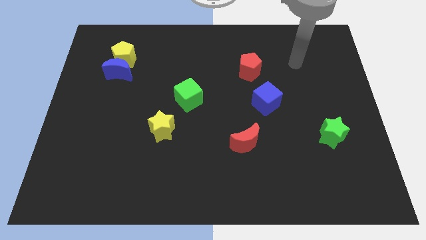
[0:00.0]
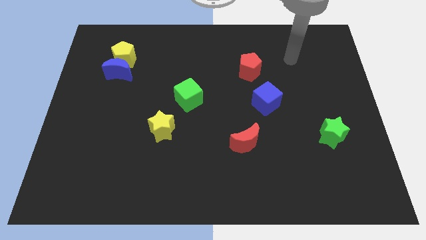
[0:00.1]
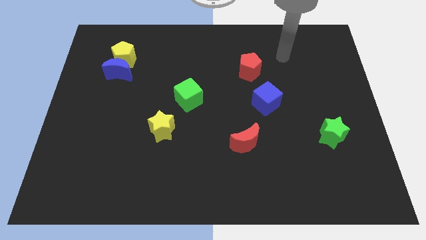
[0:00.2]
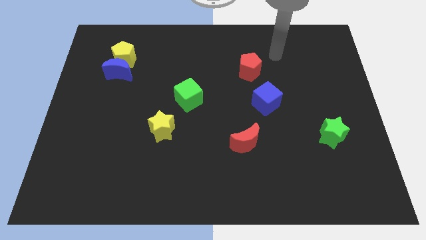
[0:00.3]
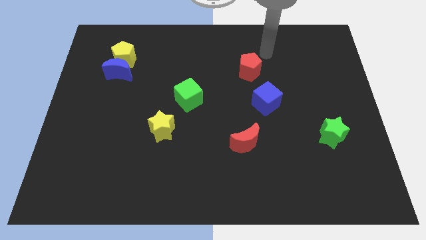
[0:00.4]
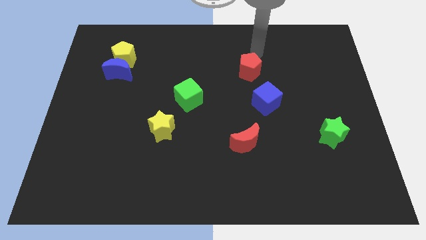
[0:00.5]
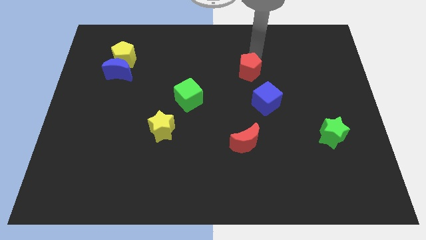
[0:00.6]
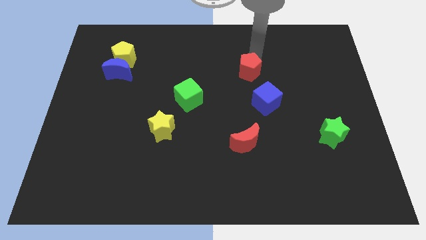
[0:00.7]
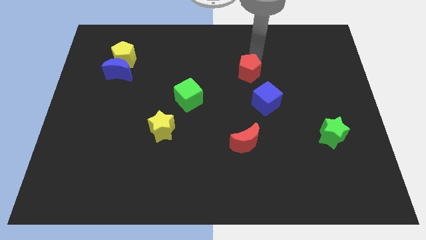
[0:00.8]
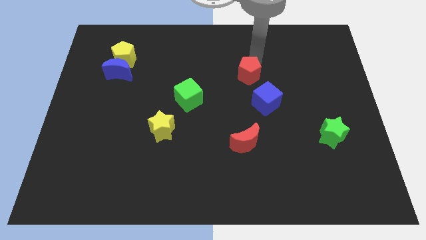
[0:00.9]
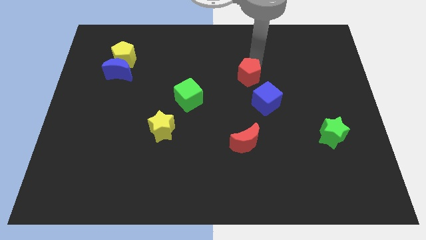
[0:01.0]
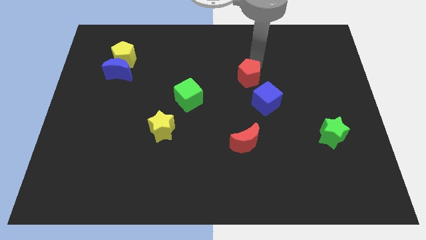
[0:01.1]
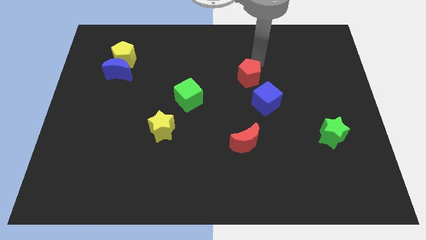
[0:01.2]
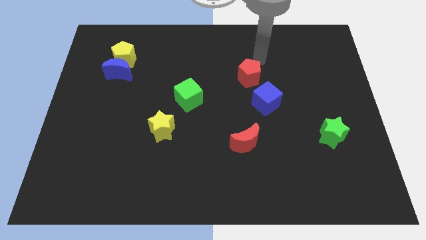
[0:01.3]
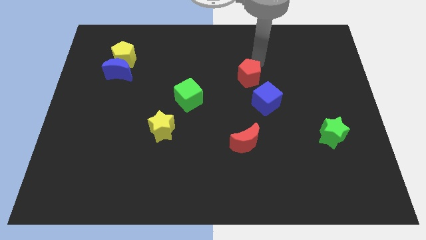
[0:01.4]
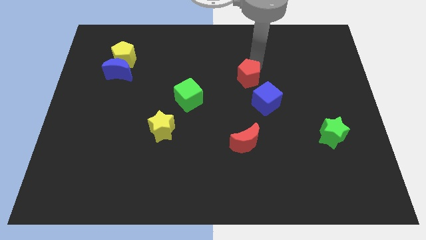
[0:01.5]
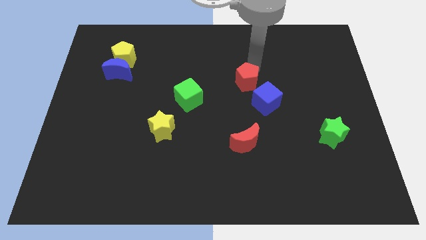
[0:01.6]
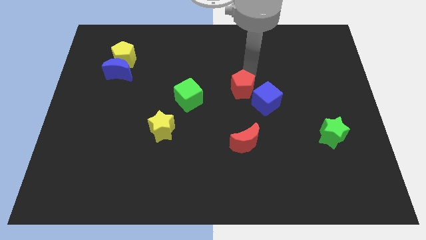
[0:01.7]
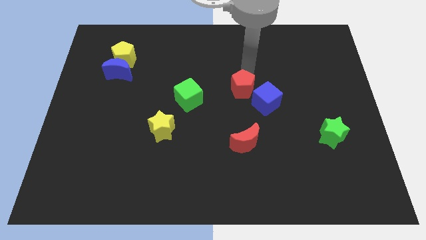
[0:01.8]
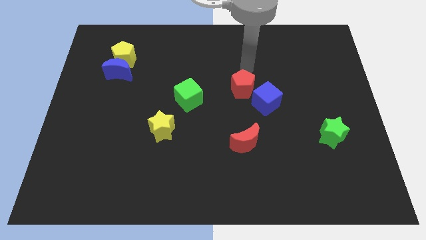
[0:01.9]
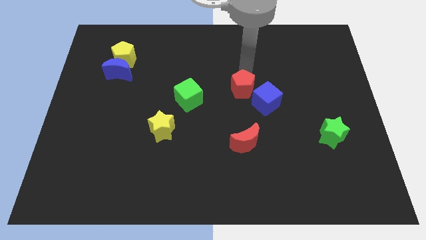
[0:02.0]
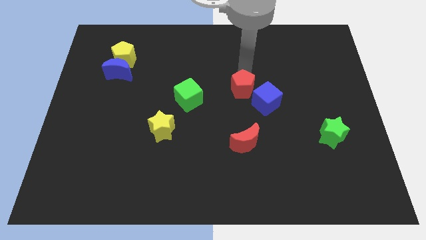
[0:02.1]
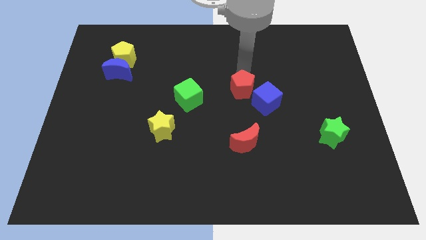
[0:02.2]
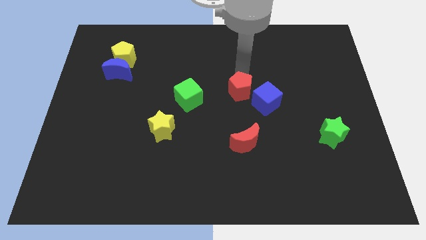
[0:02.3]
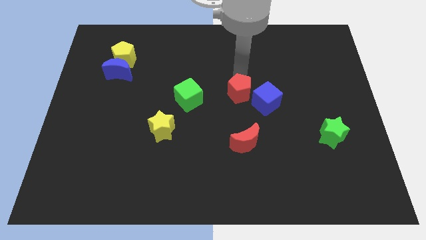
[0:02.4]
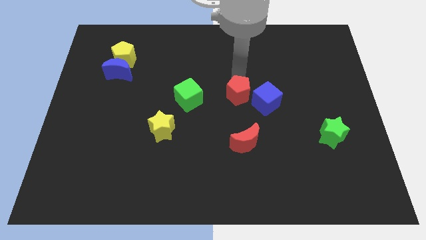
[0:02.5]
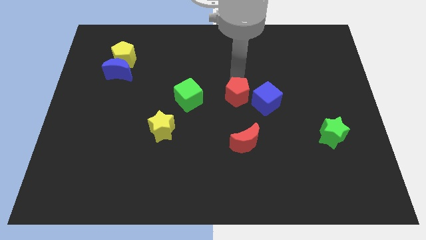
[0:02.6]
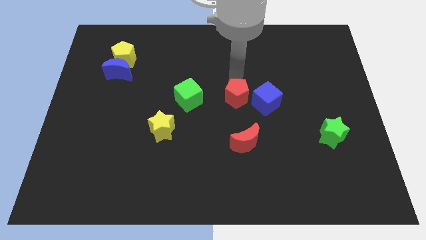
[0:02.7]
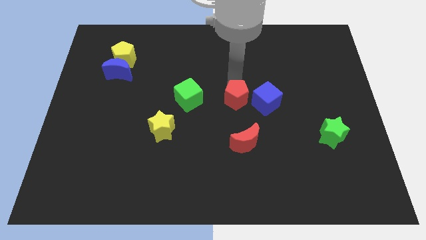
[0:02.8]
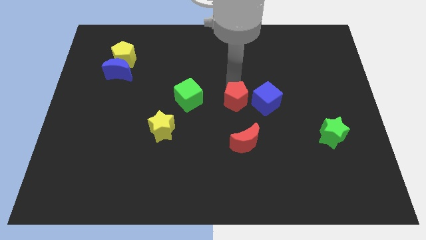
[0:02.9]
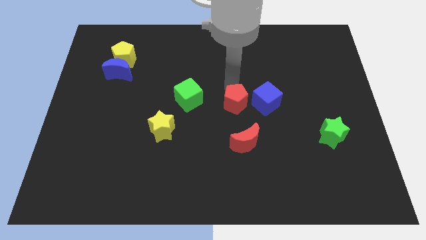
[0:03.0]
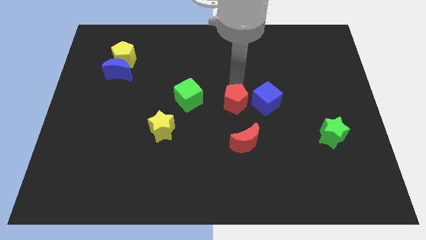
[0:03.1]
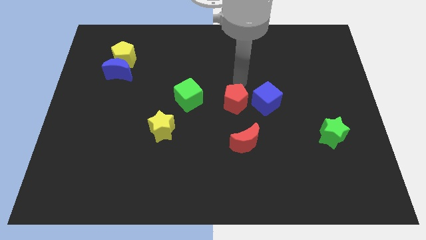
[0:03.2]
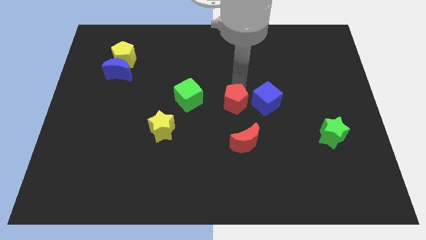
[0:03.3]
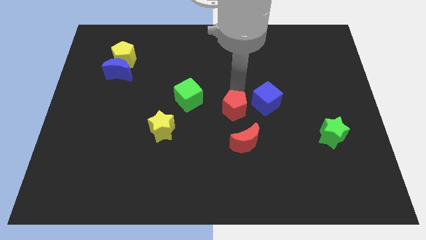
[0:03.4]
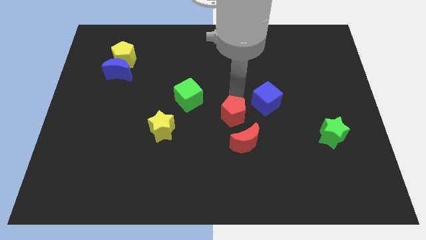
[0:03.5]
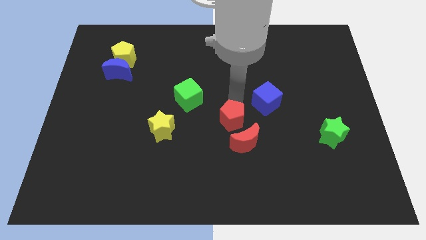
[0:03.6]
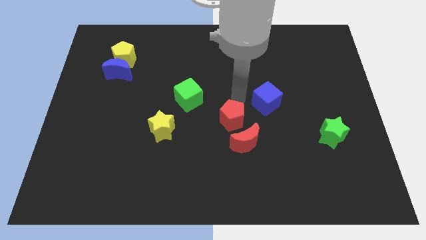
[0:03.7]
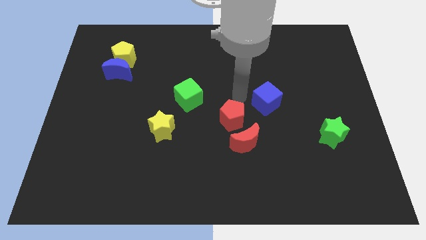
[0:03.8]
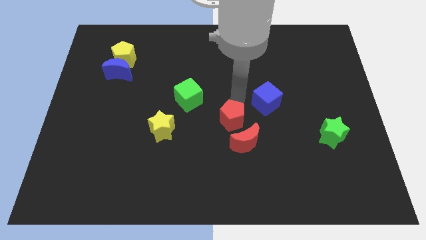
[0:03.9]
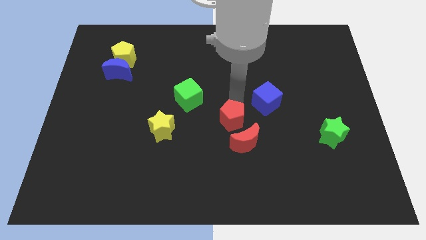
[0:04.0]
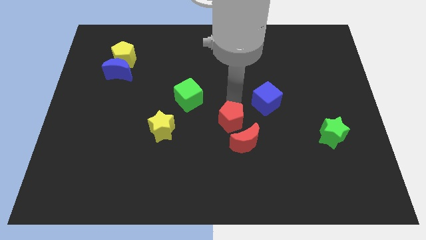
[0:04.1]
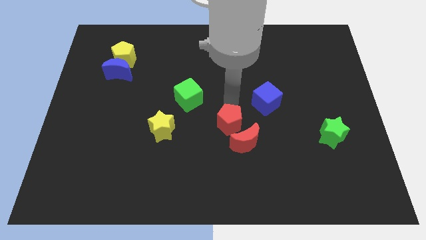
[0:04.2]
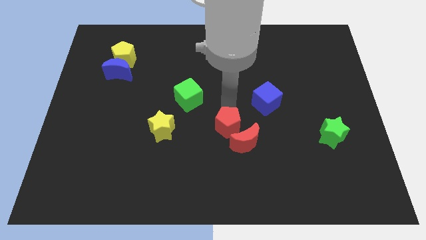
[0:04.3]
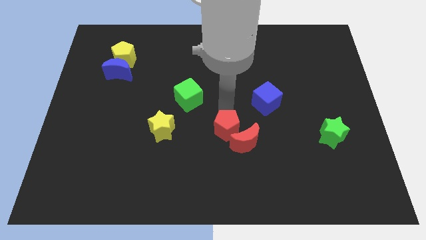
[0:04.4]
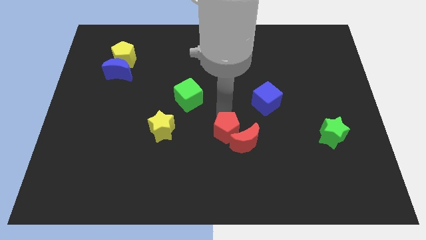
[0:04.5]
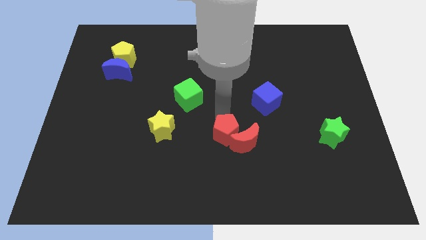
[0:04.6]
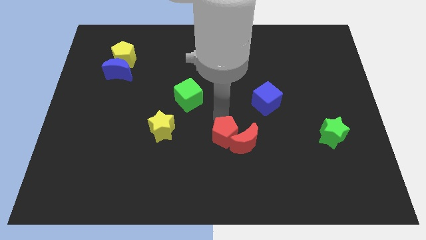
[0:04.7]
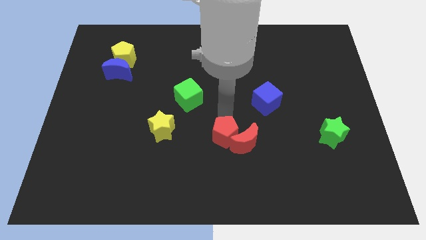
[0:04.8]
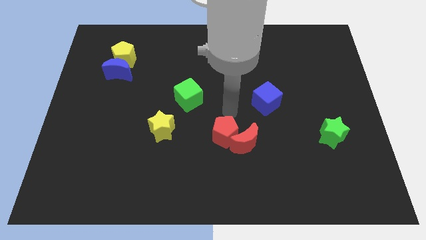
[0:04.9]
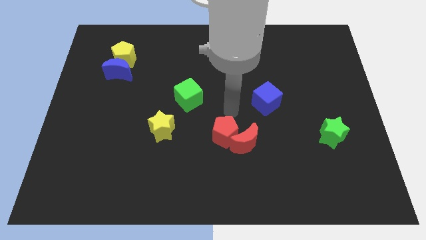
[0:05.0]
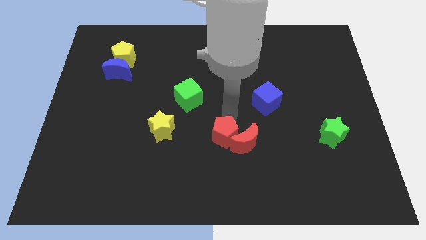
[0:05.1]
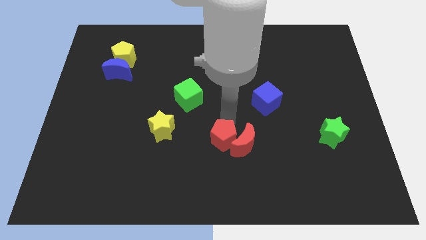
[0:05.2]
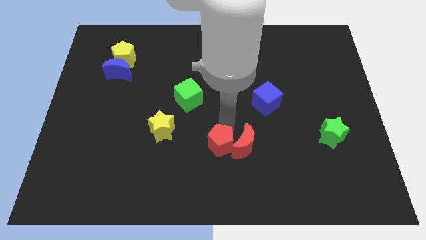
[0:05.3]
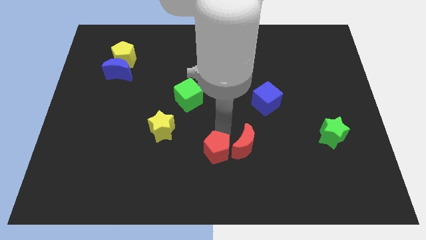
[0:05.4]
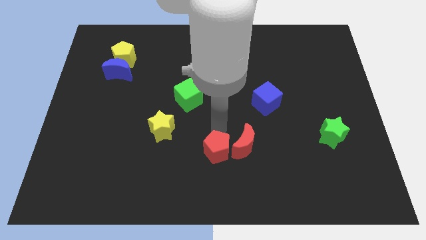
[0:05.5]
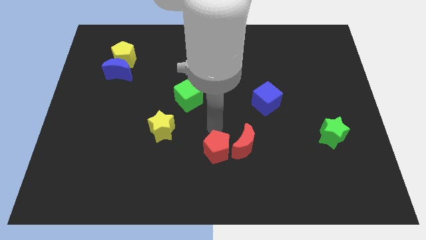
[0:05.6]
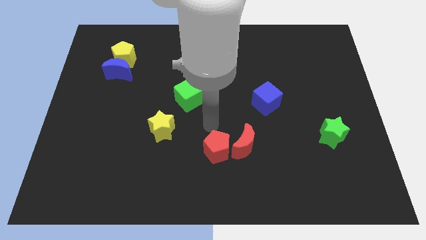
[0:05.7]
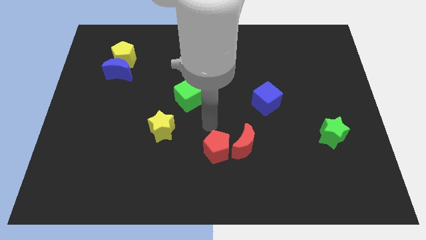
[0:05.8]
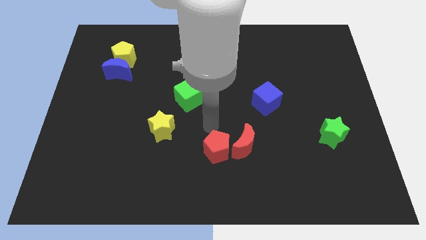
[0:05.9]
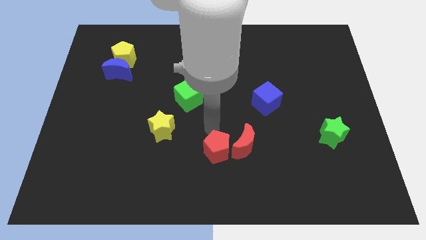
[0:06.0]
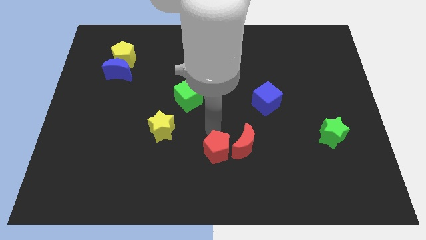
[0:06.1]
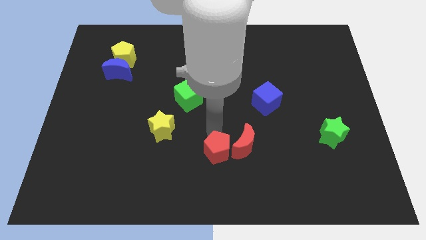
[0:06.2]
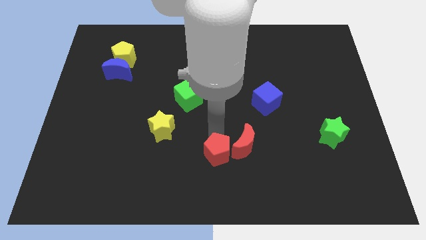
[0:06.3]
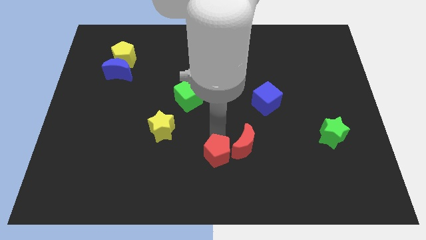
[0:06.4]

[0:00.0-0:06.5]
put the red pentagon to the bottom

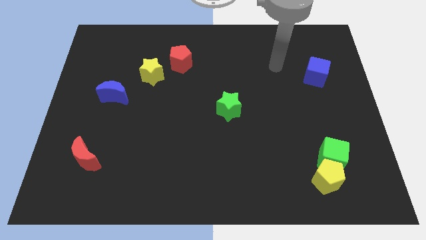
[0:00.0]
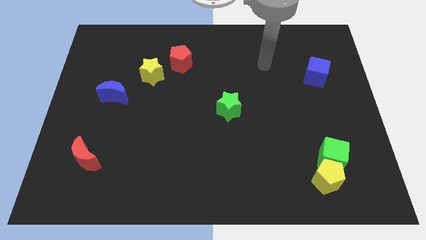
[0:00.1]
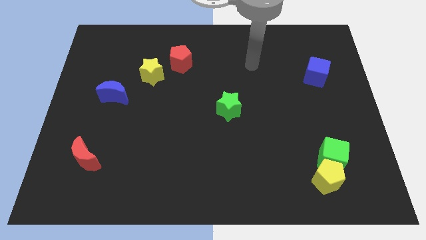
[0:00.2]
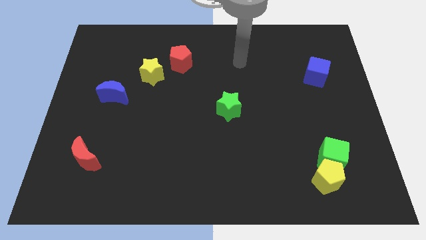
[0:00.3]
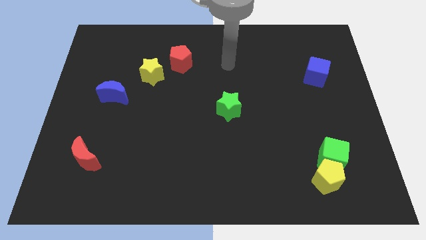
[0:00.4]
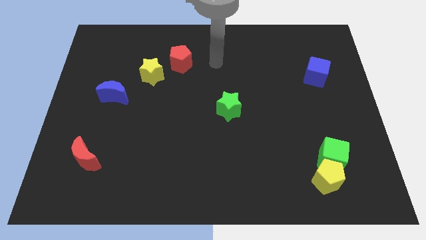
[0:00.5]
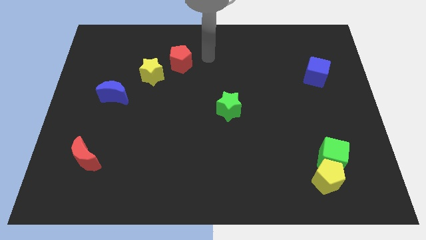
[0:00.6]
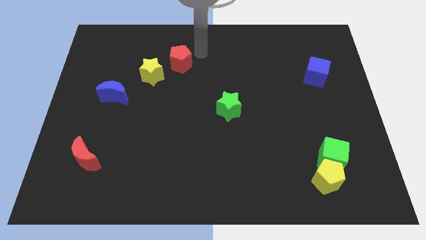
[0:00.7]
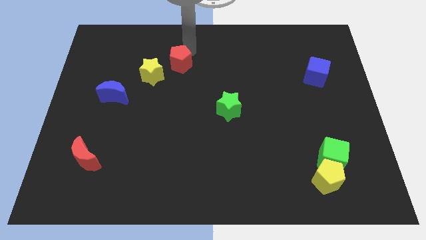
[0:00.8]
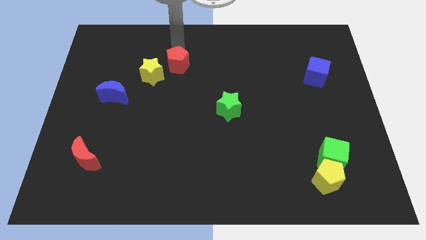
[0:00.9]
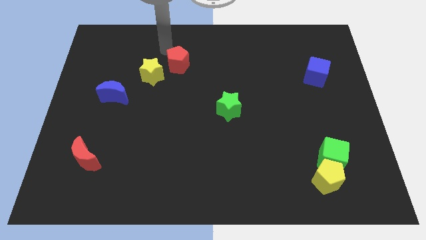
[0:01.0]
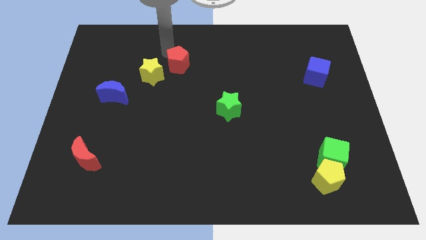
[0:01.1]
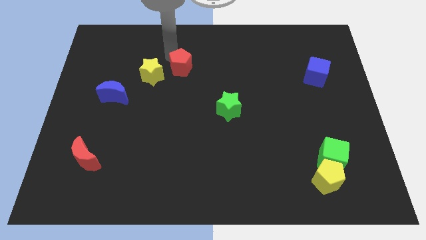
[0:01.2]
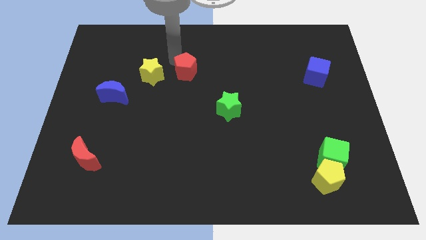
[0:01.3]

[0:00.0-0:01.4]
move the red pentagon to the center of the board
